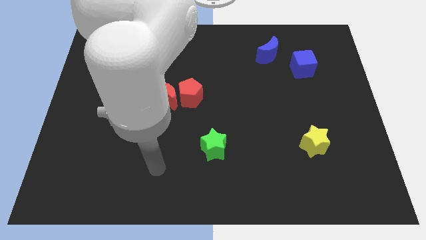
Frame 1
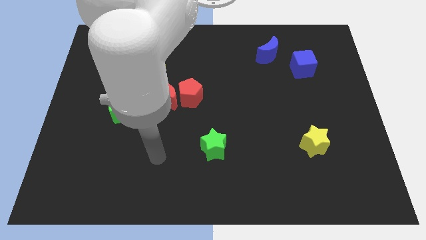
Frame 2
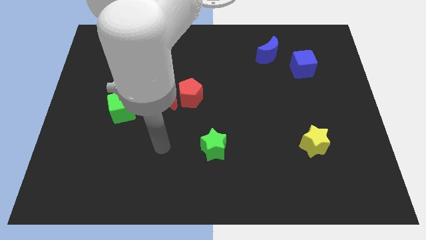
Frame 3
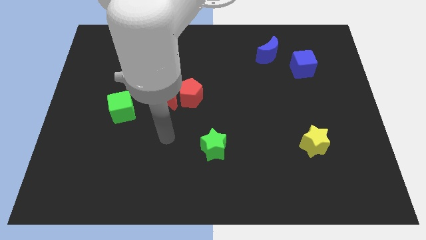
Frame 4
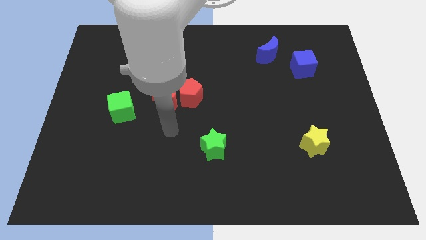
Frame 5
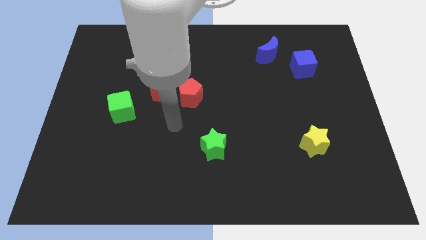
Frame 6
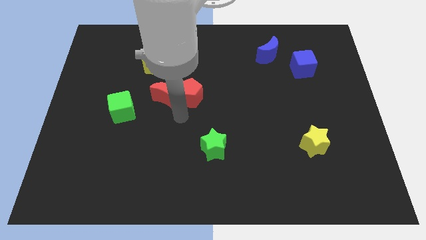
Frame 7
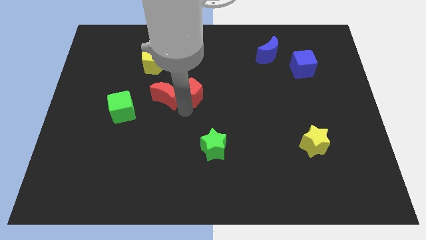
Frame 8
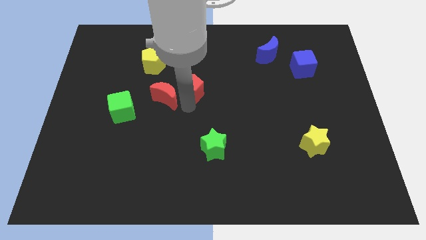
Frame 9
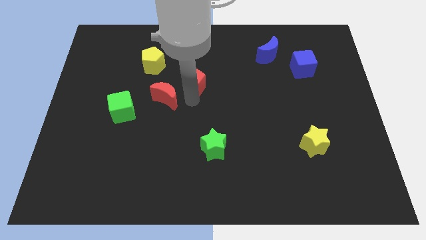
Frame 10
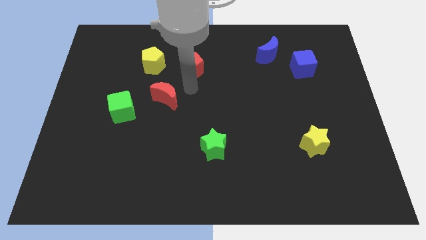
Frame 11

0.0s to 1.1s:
pull the red moon apart from the red pentagon

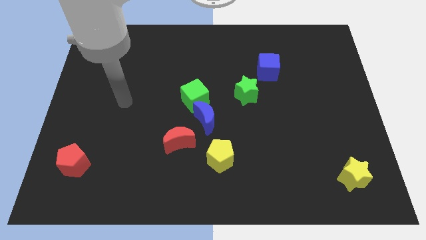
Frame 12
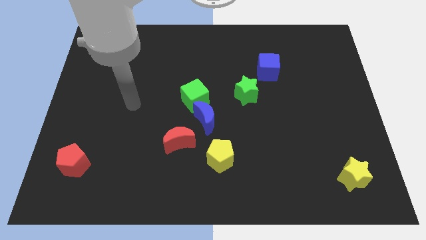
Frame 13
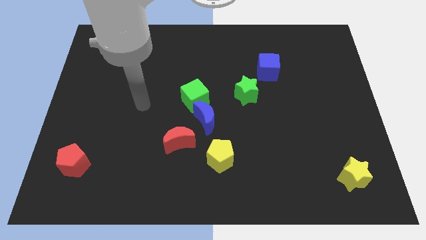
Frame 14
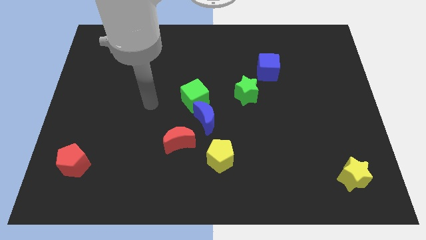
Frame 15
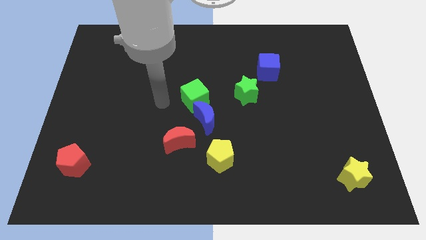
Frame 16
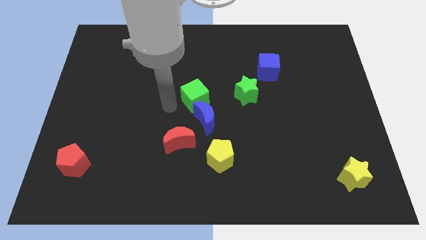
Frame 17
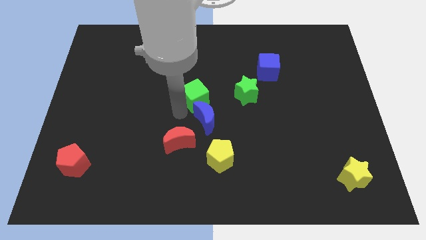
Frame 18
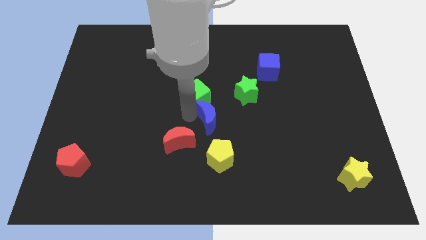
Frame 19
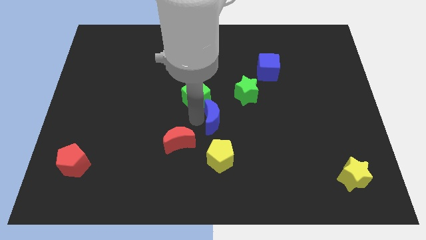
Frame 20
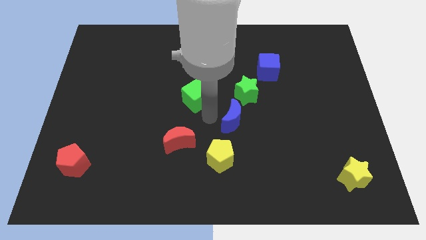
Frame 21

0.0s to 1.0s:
move the green cube away from the blue moon

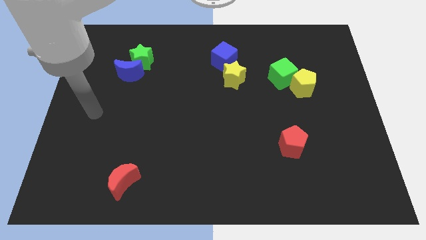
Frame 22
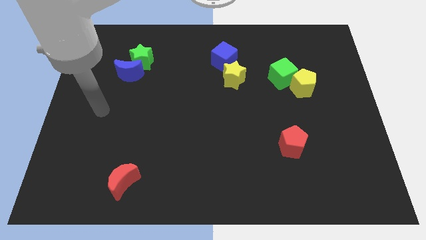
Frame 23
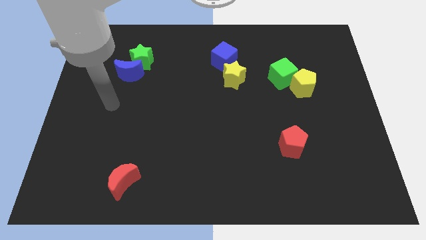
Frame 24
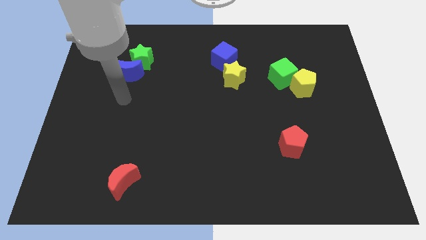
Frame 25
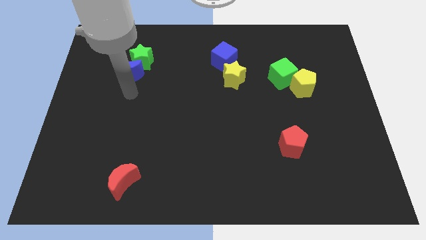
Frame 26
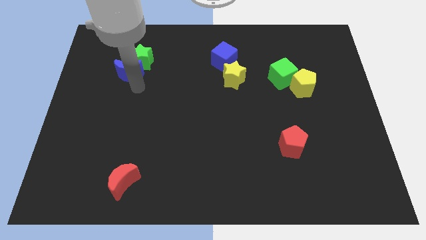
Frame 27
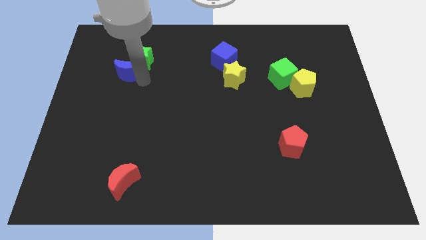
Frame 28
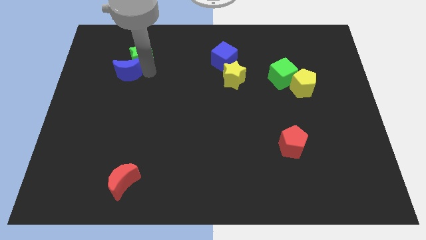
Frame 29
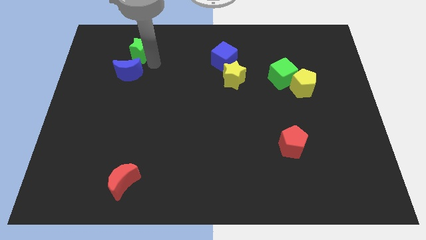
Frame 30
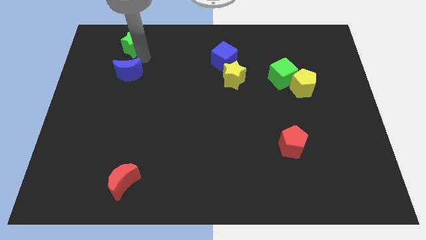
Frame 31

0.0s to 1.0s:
move the blue moon away from the green star

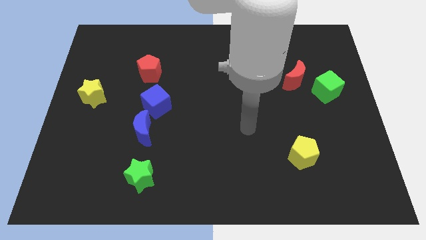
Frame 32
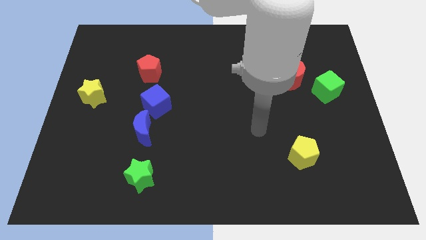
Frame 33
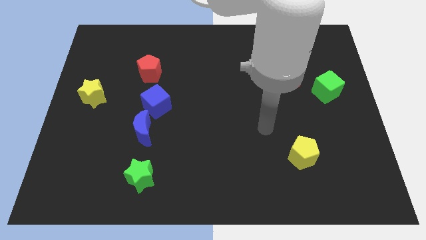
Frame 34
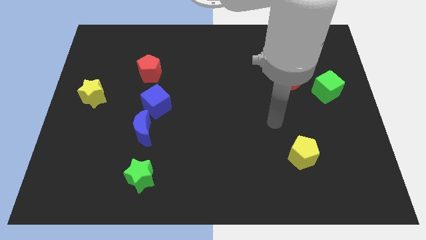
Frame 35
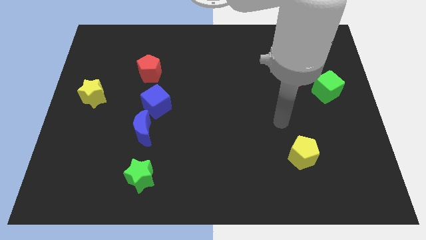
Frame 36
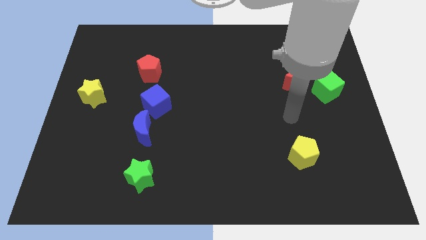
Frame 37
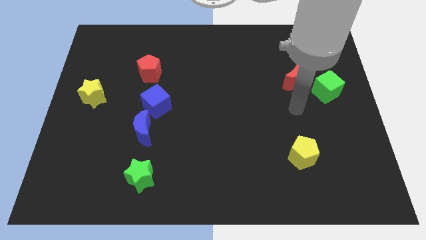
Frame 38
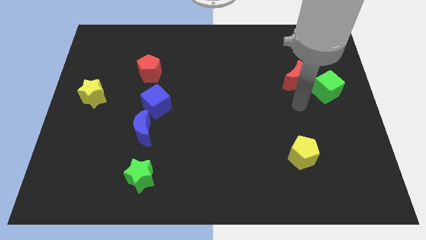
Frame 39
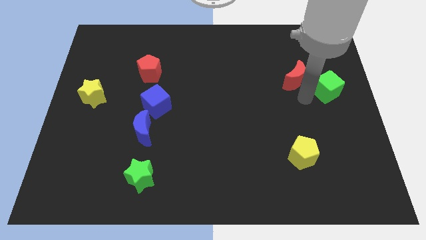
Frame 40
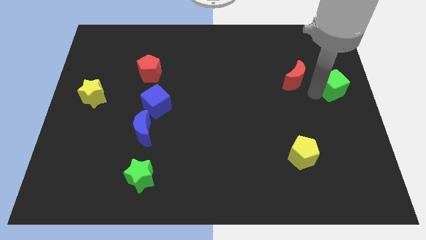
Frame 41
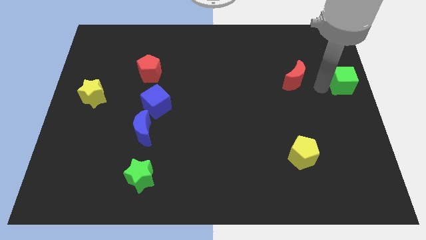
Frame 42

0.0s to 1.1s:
separate the red moon from the green cube

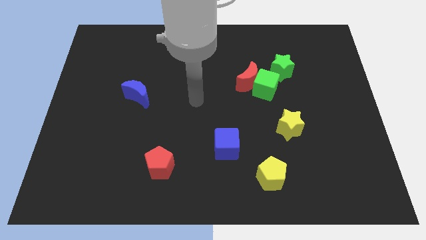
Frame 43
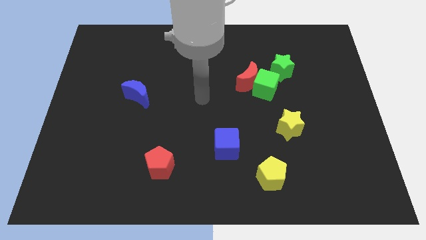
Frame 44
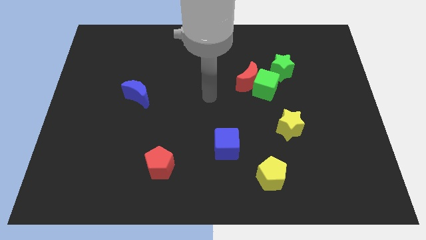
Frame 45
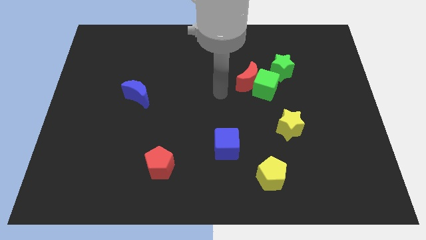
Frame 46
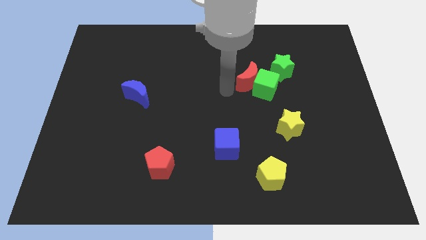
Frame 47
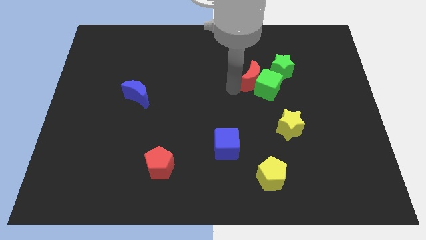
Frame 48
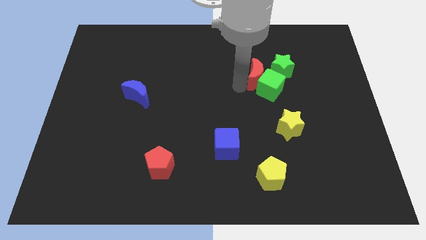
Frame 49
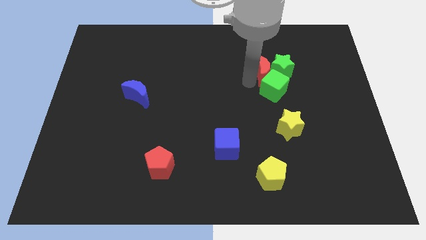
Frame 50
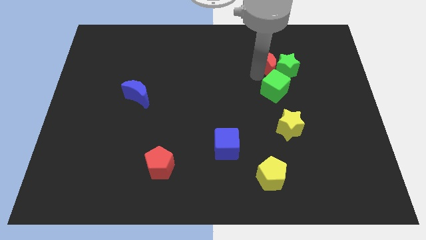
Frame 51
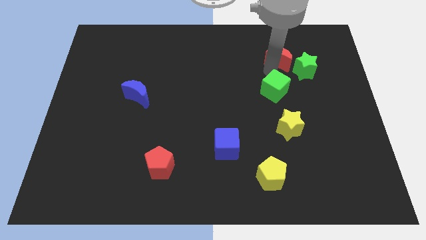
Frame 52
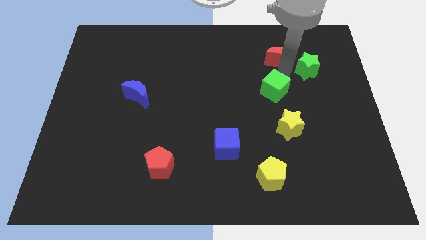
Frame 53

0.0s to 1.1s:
separate the green cube from the red moon and green star

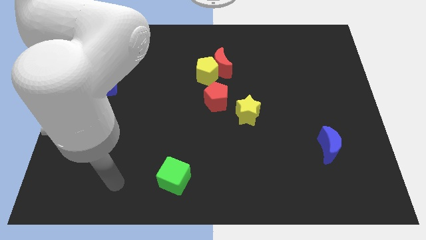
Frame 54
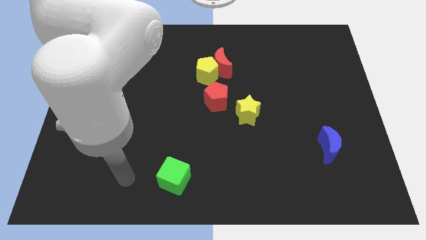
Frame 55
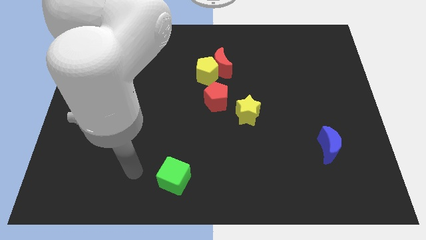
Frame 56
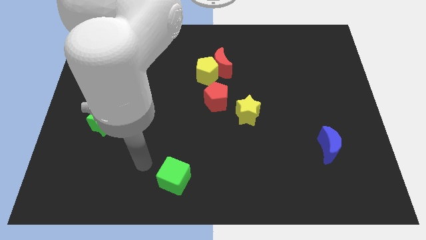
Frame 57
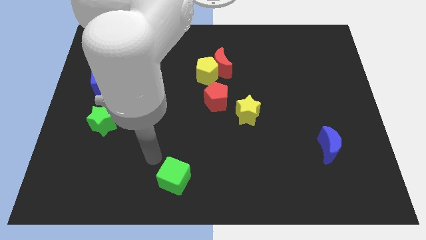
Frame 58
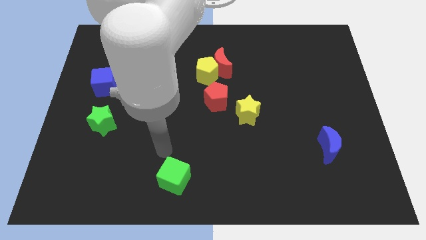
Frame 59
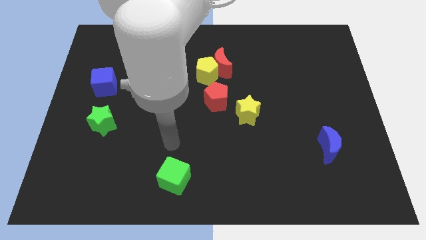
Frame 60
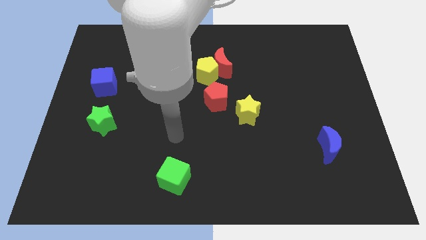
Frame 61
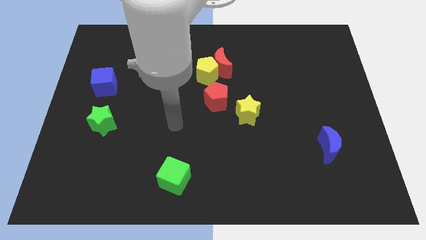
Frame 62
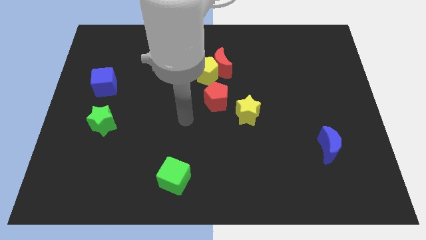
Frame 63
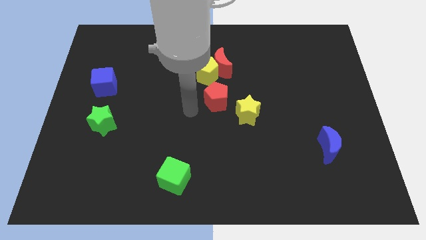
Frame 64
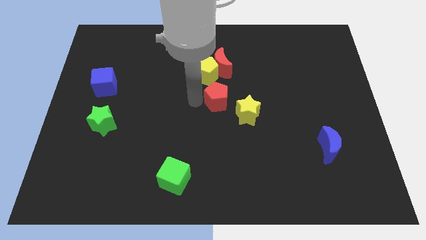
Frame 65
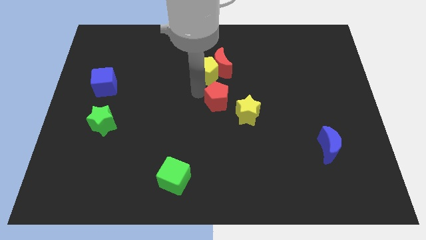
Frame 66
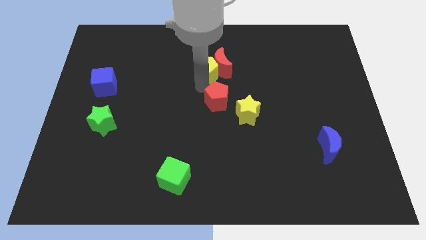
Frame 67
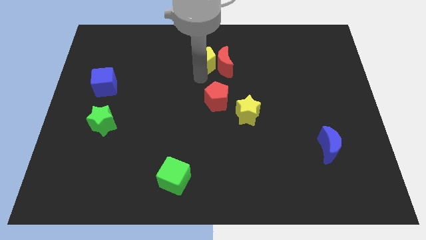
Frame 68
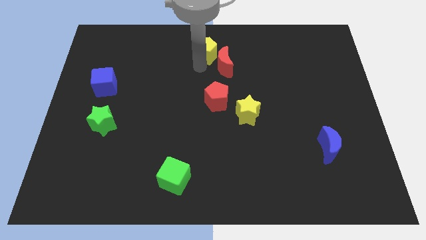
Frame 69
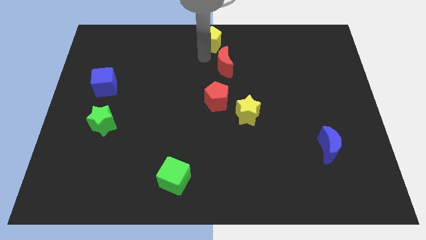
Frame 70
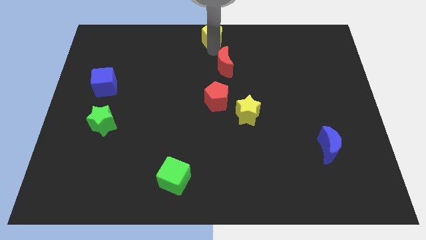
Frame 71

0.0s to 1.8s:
move the red moon away from the yellow pentagon

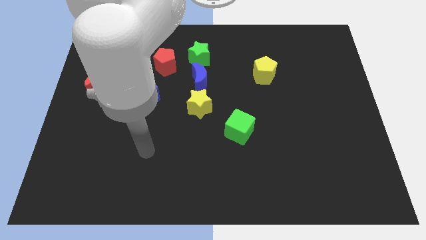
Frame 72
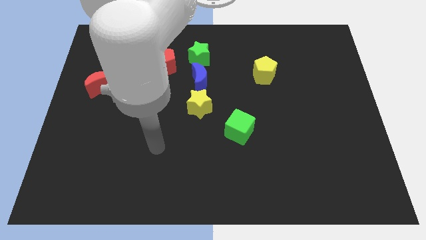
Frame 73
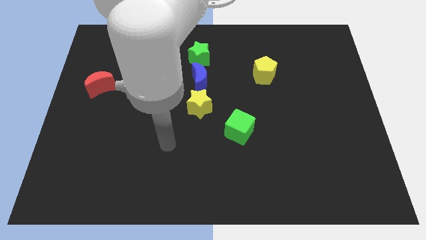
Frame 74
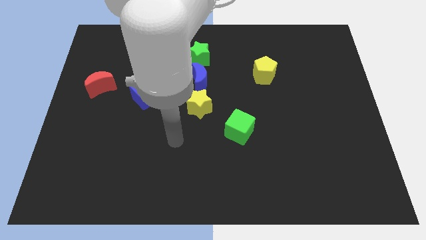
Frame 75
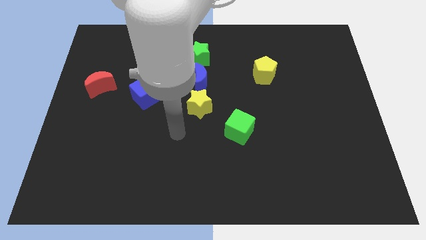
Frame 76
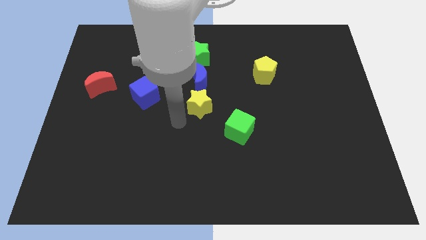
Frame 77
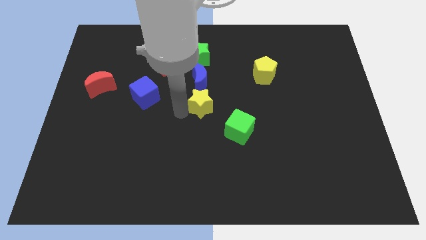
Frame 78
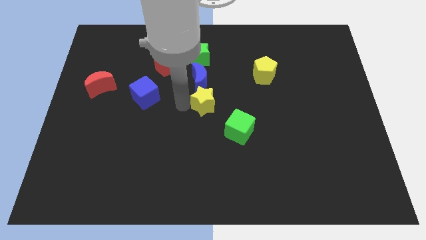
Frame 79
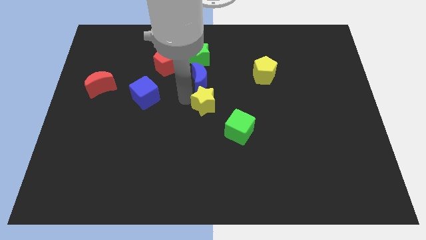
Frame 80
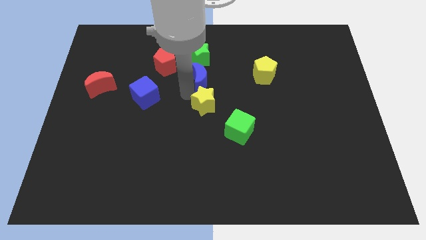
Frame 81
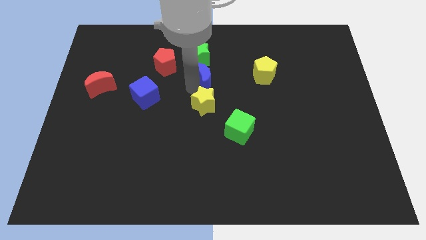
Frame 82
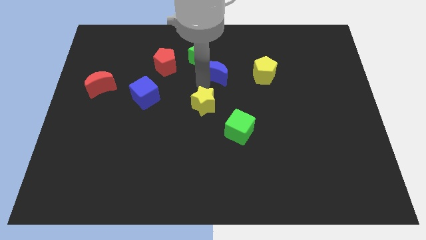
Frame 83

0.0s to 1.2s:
move the yellow star away from the blue moon

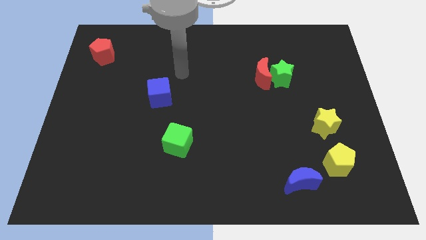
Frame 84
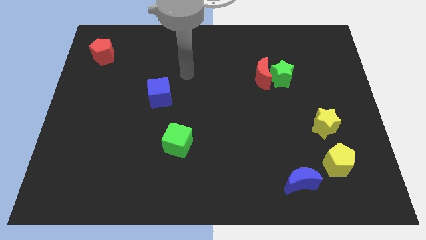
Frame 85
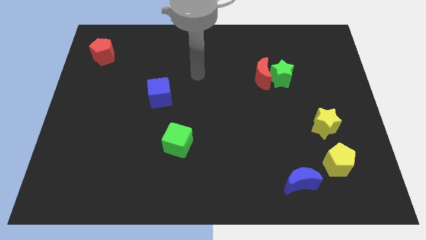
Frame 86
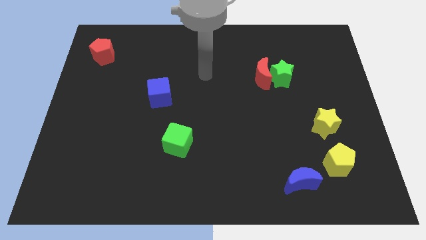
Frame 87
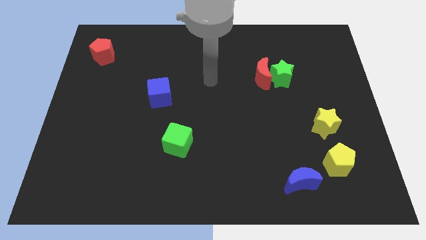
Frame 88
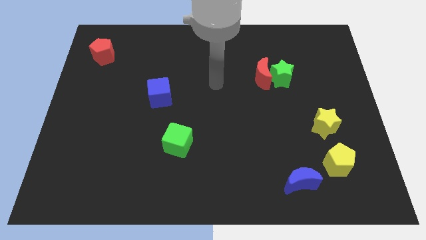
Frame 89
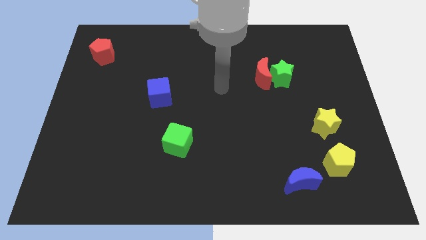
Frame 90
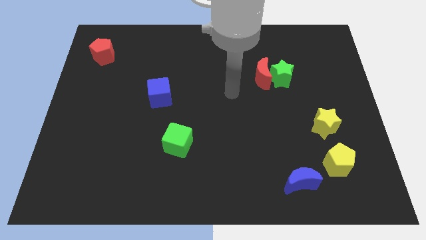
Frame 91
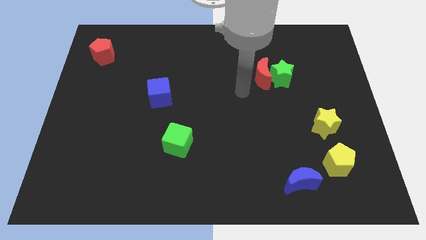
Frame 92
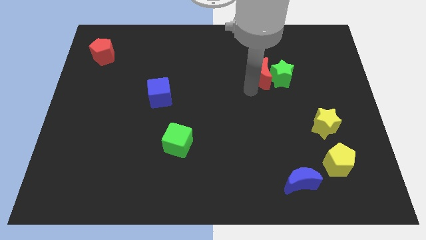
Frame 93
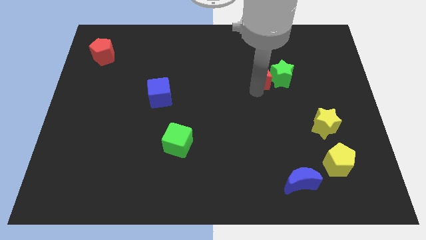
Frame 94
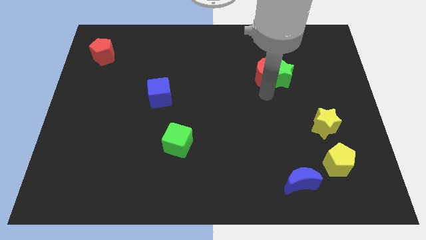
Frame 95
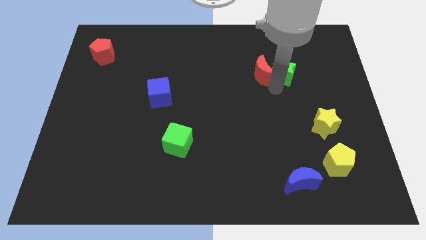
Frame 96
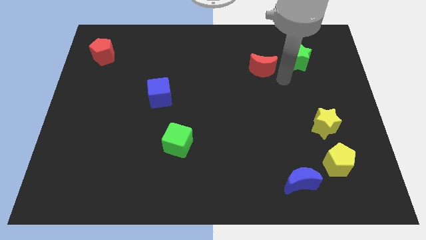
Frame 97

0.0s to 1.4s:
separate the red moon from the green star
